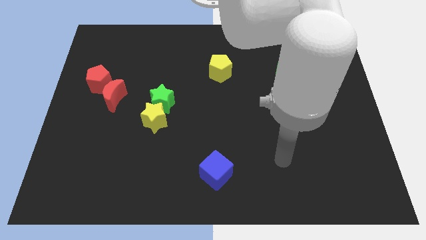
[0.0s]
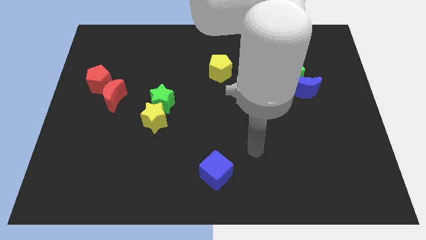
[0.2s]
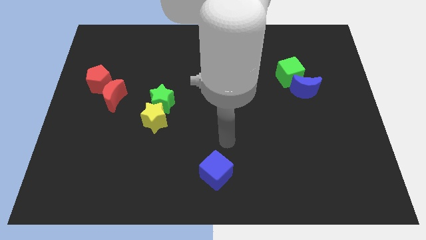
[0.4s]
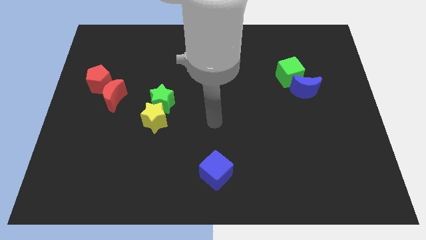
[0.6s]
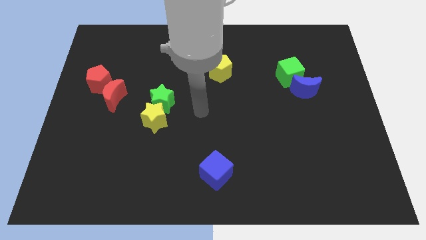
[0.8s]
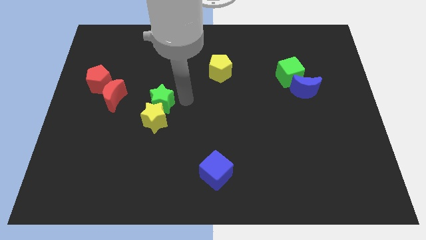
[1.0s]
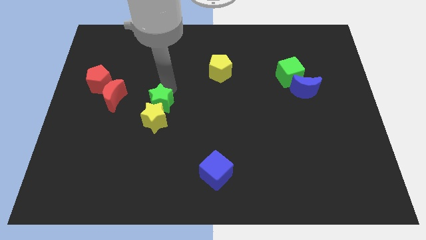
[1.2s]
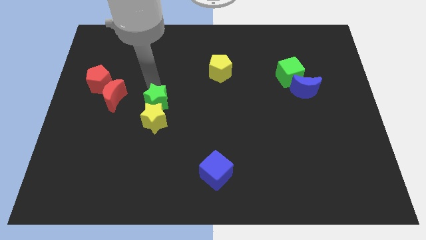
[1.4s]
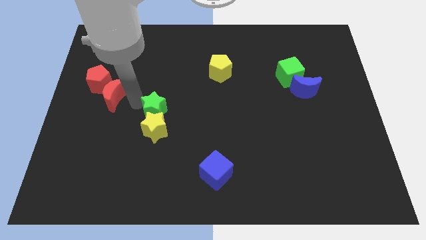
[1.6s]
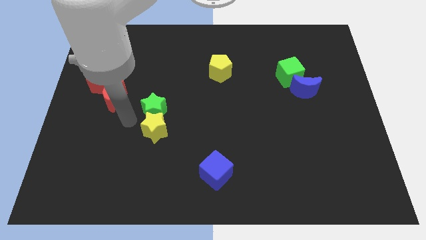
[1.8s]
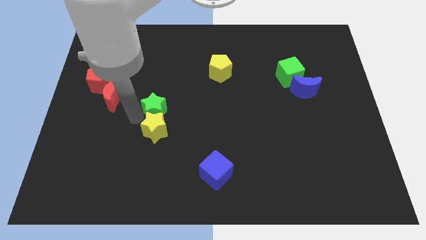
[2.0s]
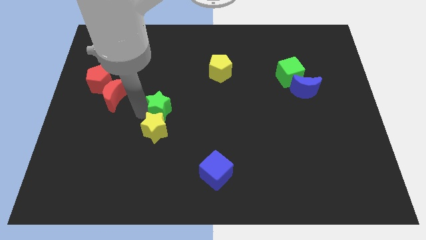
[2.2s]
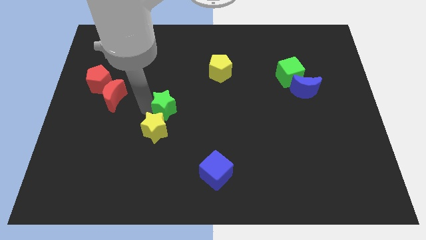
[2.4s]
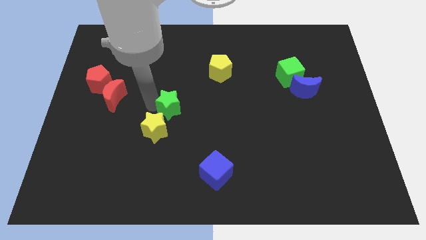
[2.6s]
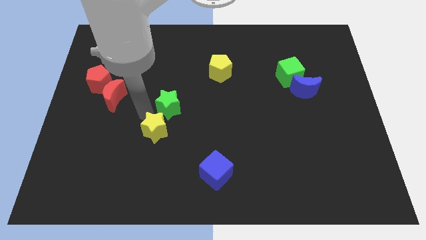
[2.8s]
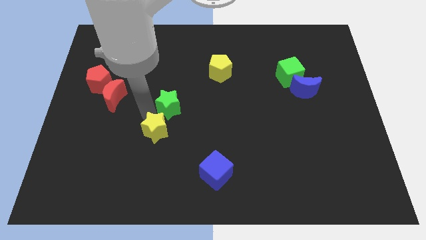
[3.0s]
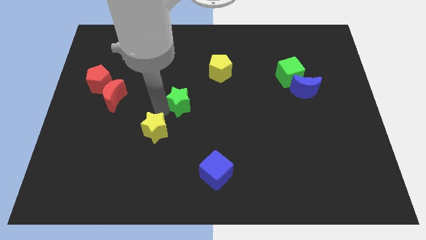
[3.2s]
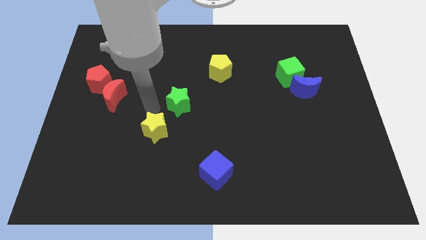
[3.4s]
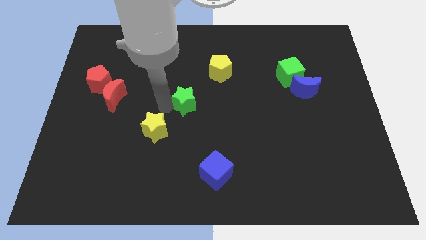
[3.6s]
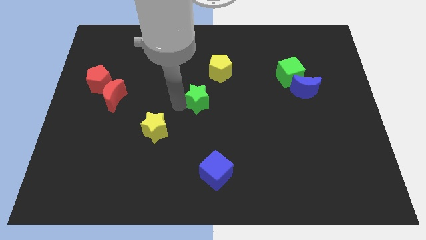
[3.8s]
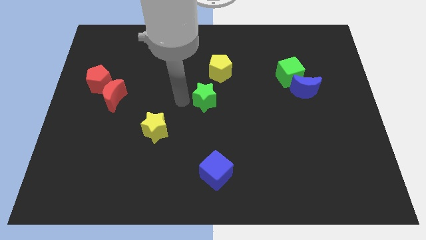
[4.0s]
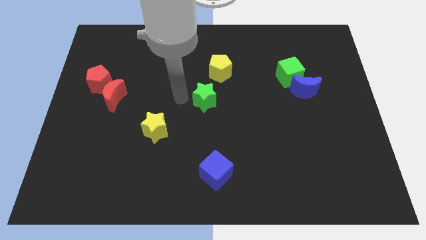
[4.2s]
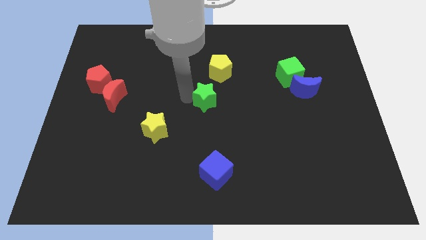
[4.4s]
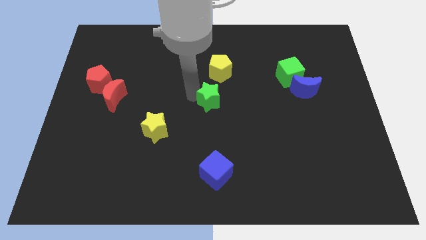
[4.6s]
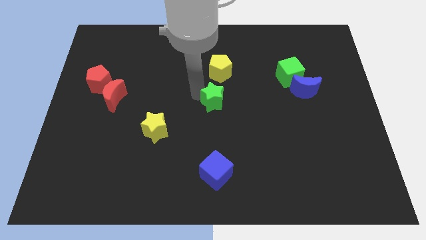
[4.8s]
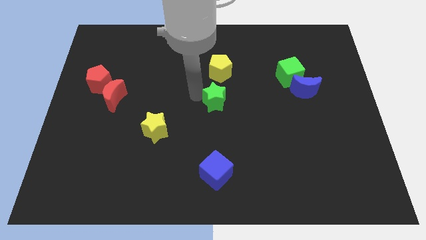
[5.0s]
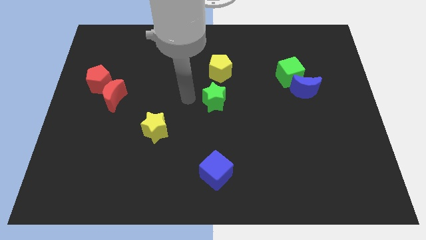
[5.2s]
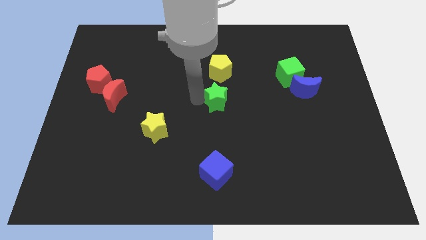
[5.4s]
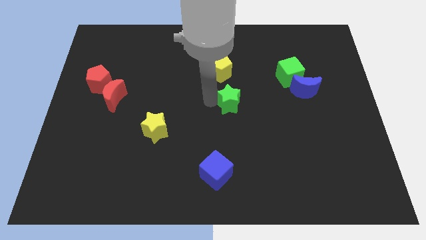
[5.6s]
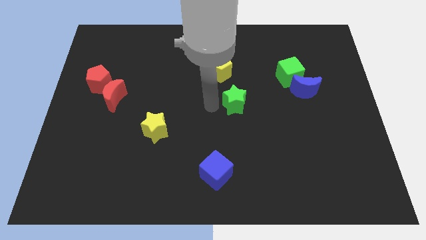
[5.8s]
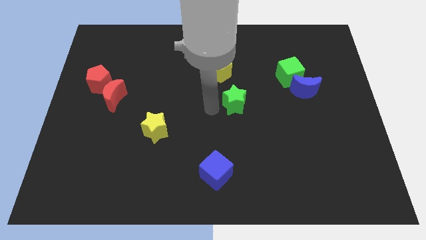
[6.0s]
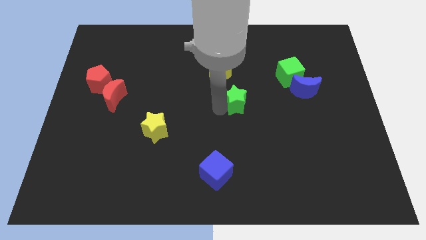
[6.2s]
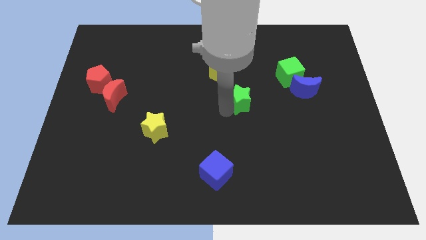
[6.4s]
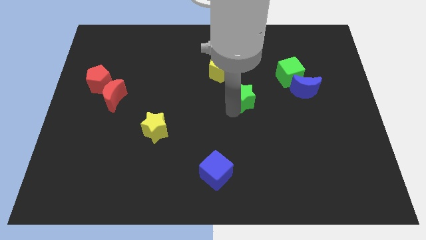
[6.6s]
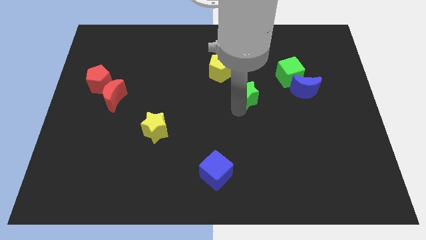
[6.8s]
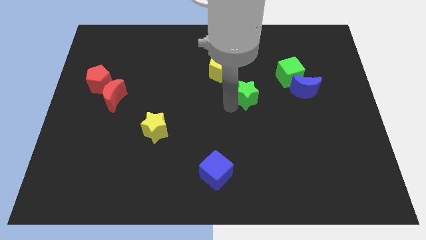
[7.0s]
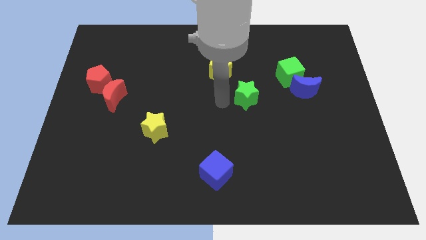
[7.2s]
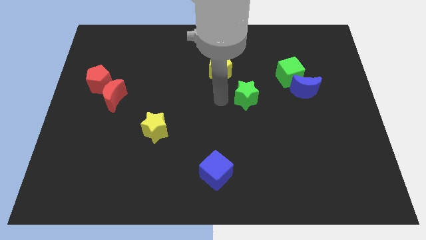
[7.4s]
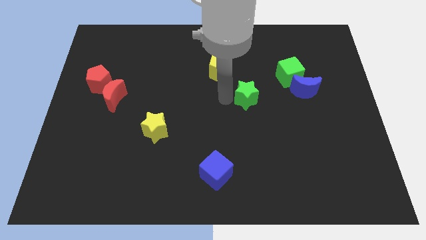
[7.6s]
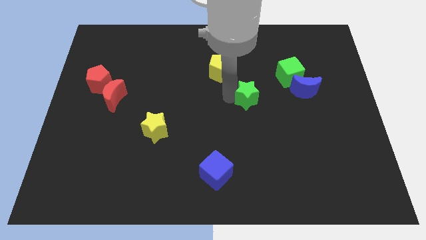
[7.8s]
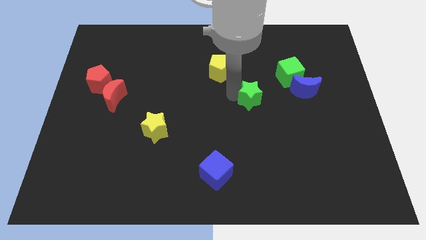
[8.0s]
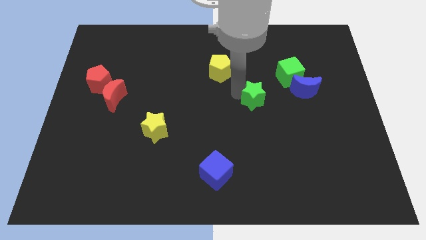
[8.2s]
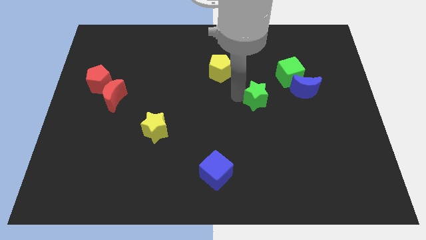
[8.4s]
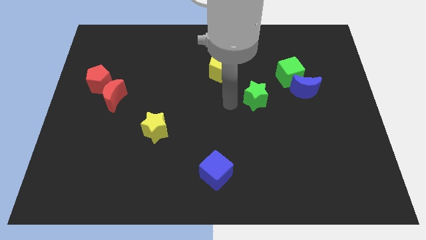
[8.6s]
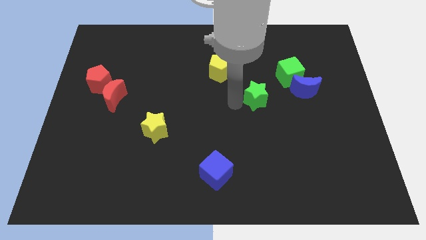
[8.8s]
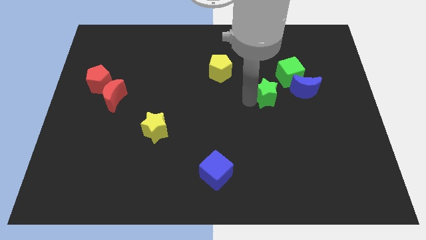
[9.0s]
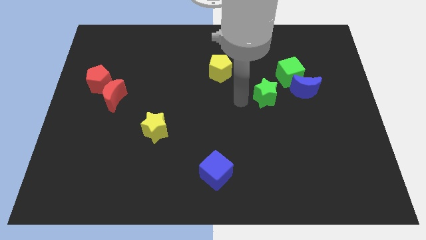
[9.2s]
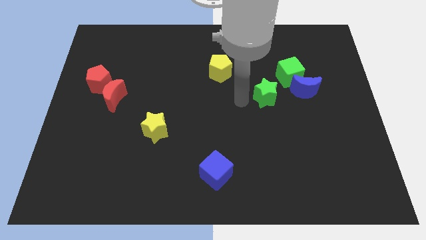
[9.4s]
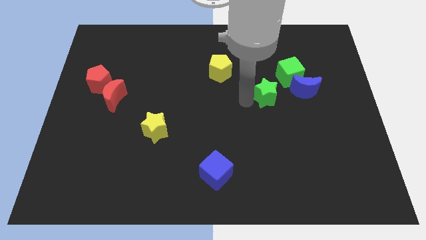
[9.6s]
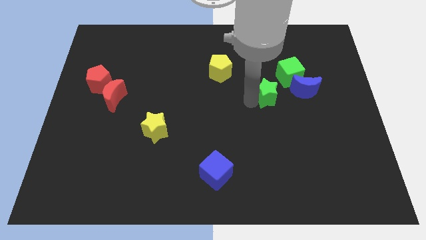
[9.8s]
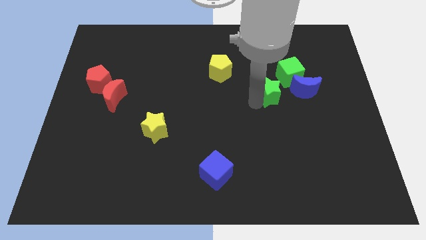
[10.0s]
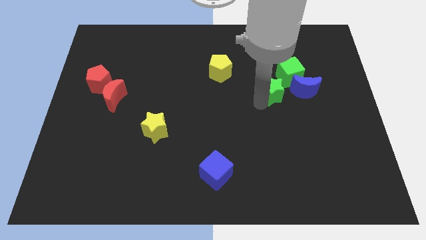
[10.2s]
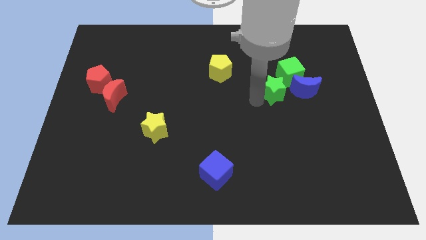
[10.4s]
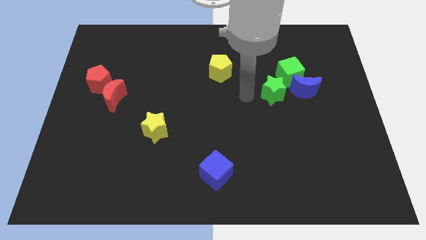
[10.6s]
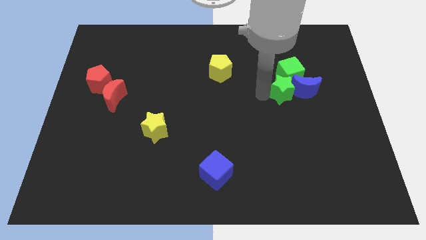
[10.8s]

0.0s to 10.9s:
move the green star close to the blue moon

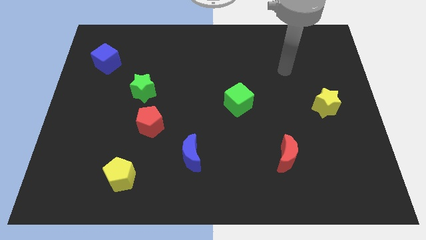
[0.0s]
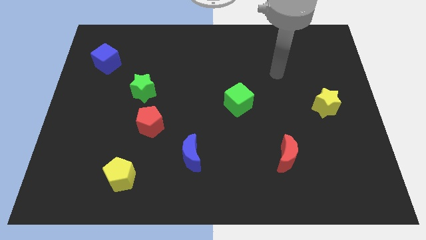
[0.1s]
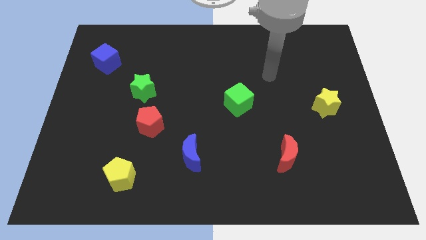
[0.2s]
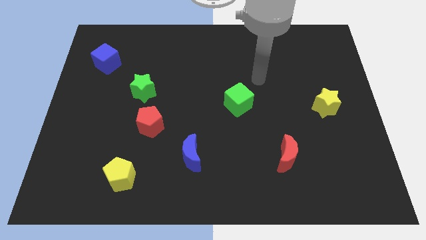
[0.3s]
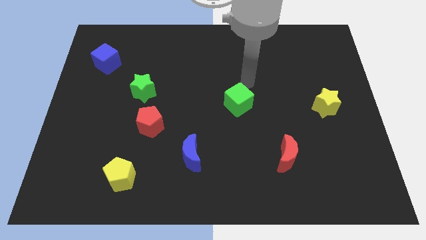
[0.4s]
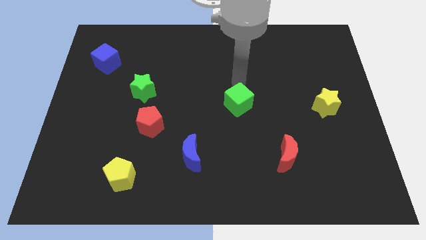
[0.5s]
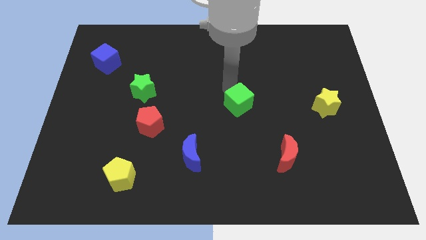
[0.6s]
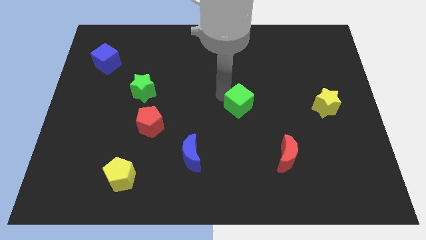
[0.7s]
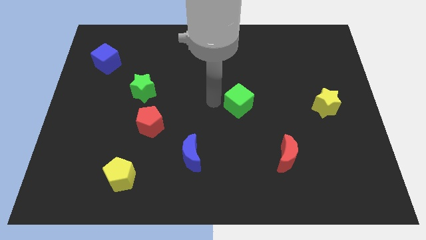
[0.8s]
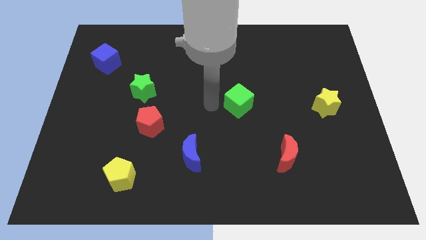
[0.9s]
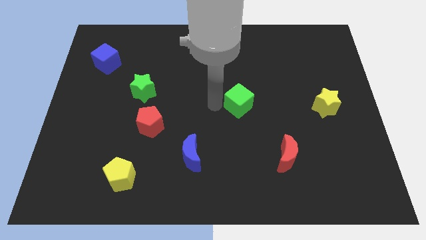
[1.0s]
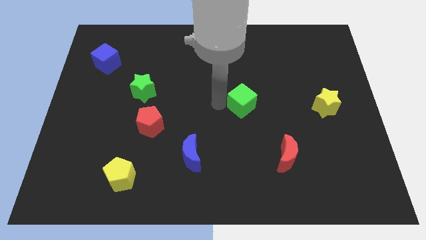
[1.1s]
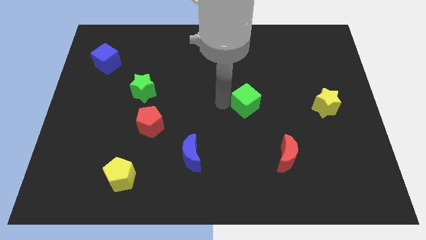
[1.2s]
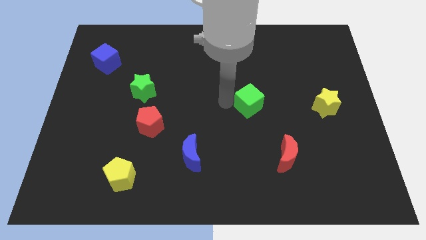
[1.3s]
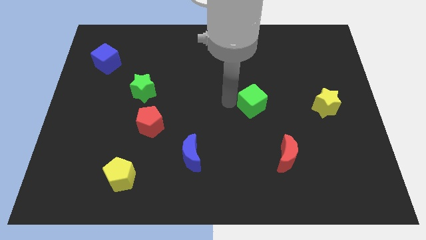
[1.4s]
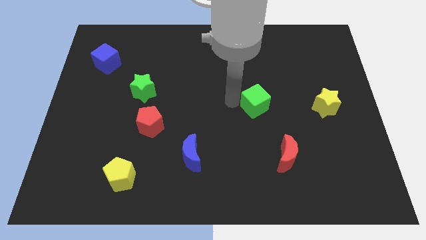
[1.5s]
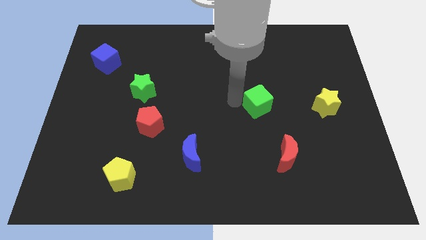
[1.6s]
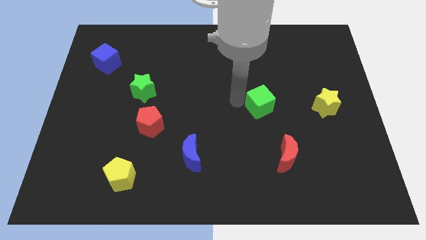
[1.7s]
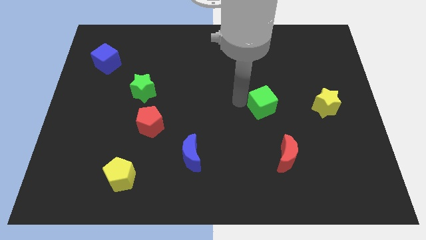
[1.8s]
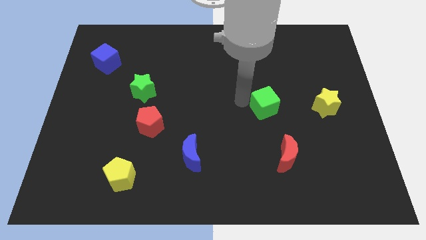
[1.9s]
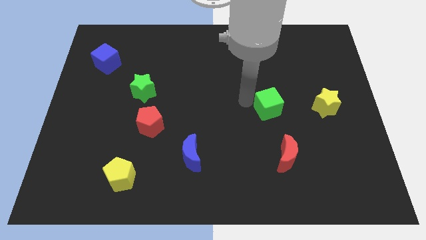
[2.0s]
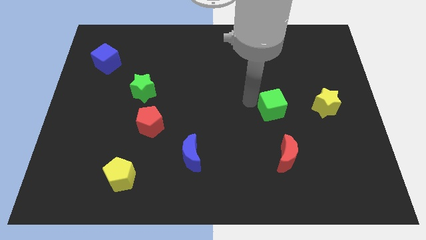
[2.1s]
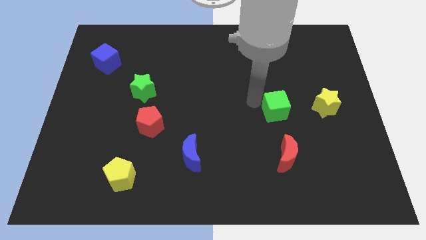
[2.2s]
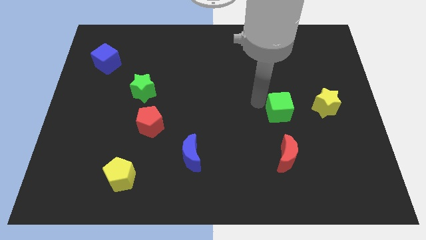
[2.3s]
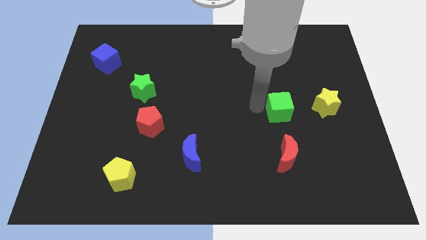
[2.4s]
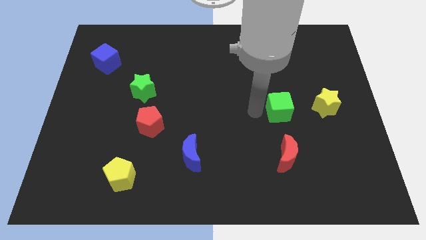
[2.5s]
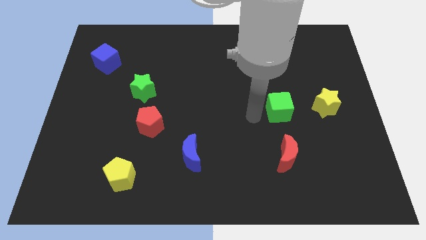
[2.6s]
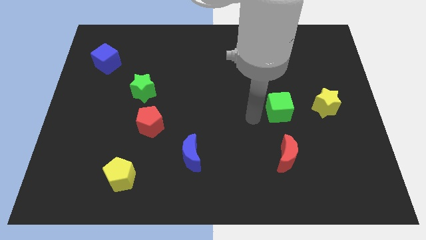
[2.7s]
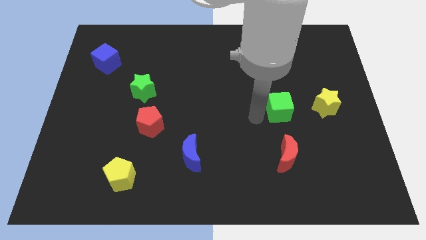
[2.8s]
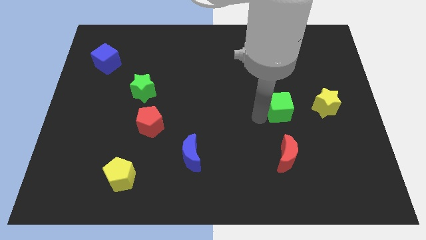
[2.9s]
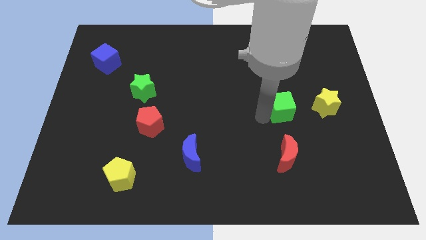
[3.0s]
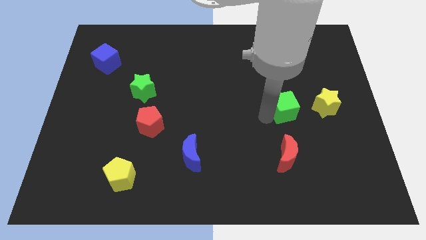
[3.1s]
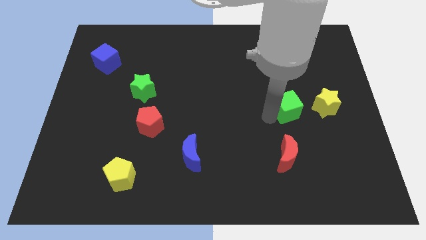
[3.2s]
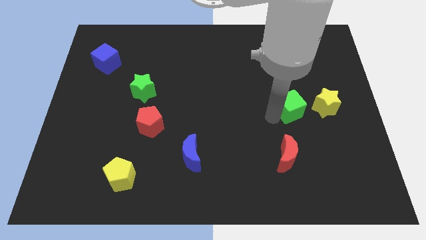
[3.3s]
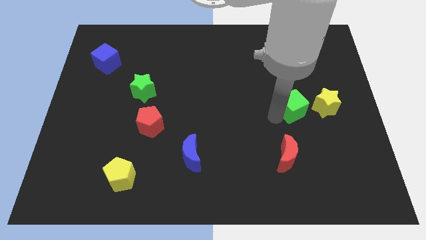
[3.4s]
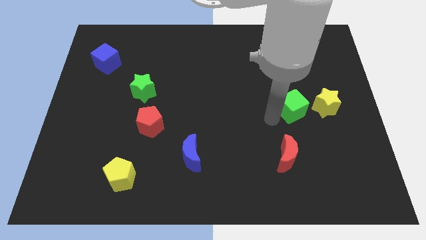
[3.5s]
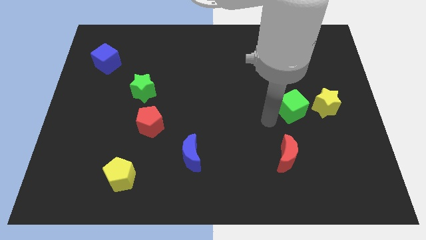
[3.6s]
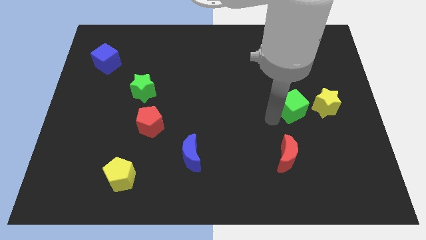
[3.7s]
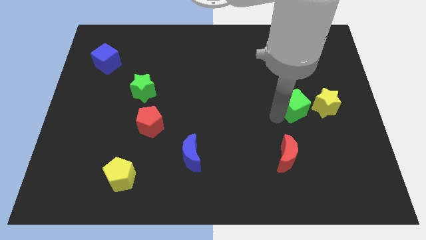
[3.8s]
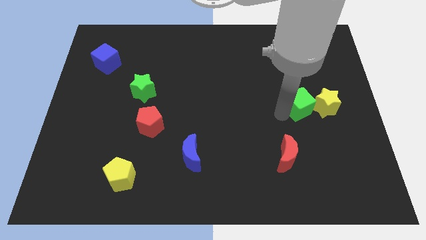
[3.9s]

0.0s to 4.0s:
move the green cube next to the yellow star
